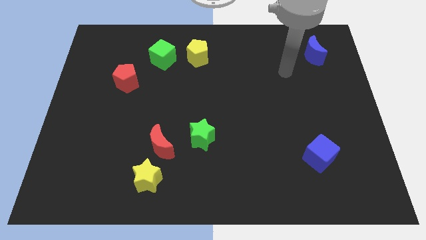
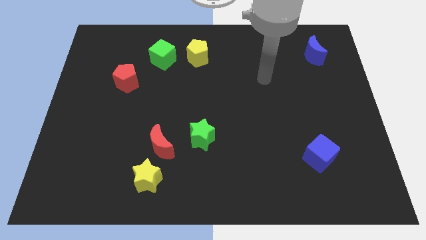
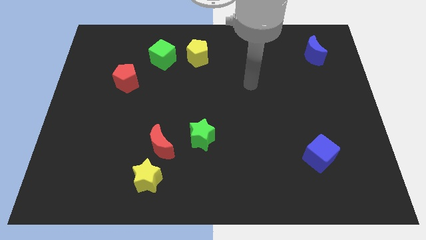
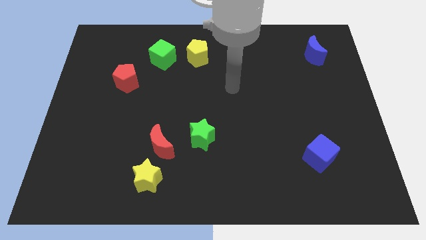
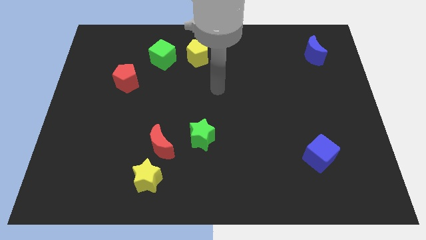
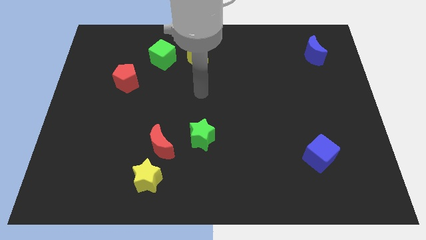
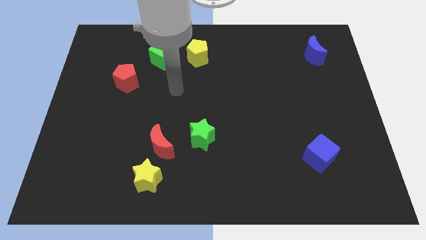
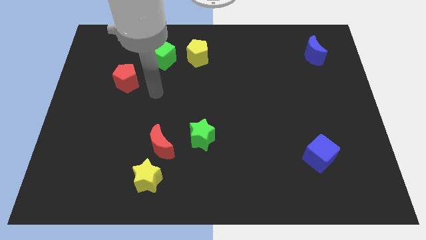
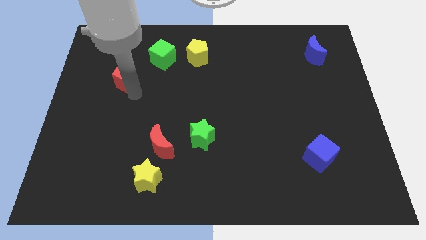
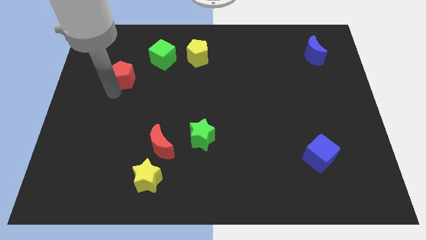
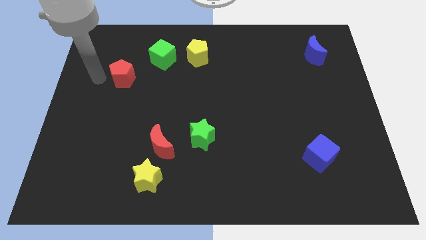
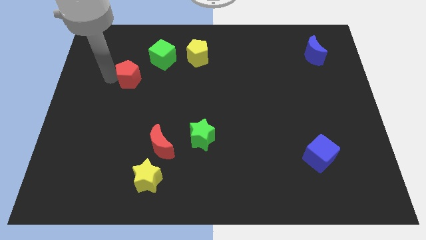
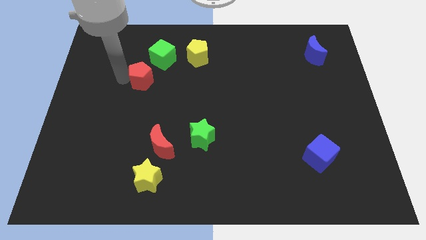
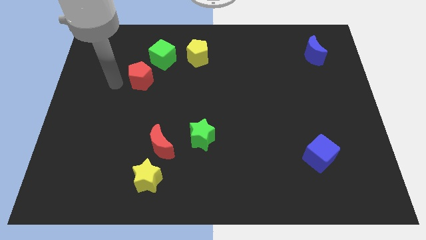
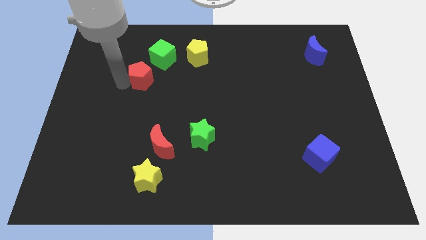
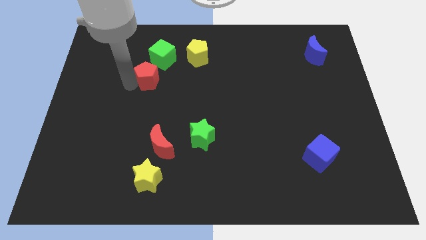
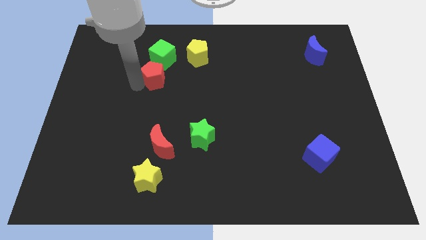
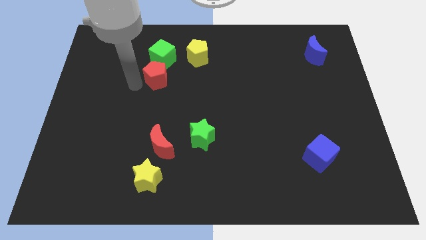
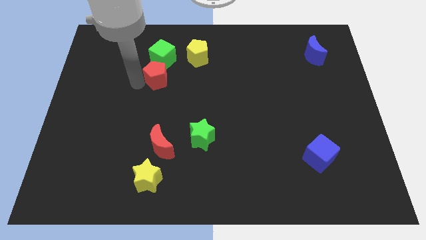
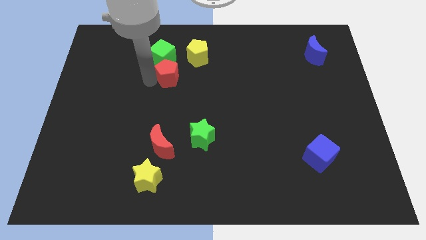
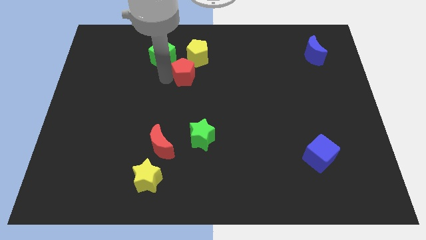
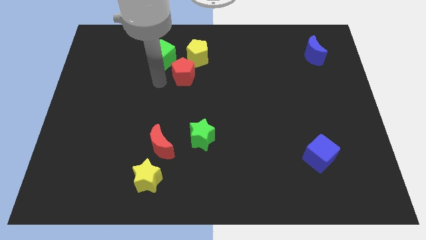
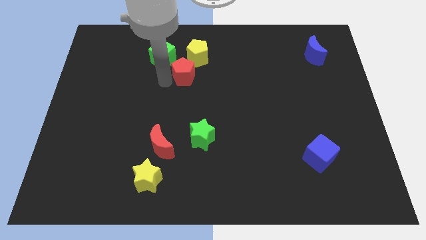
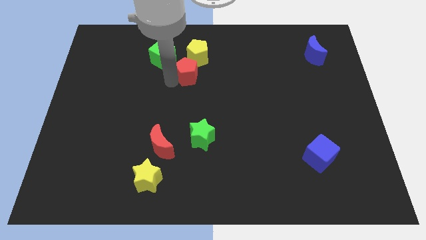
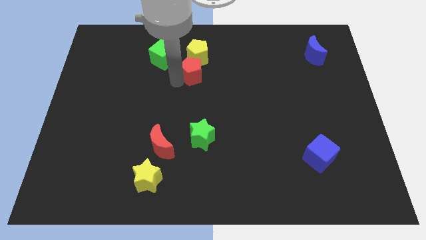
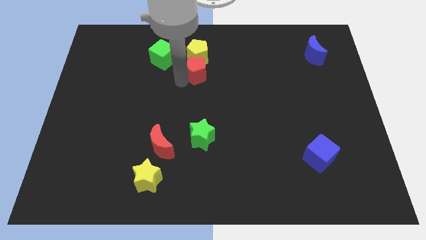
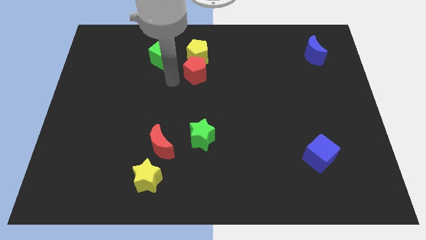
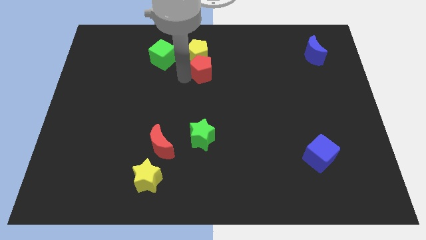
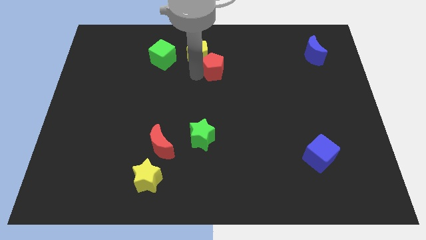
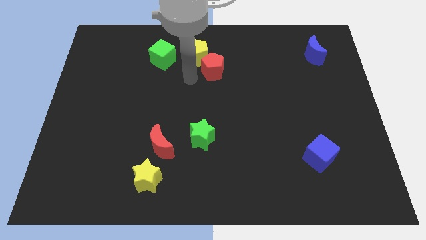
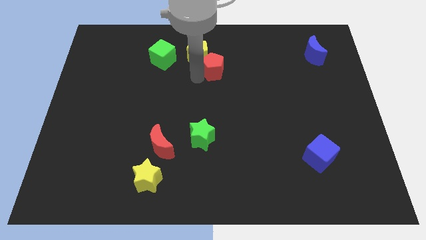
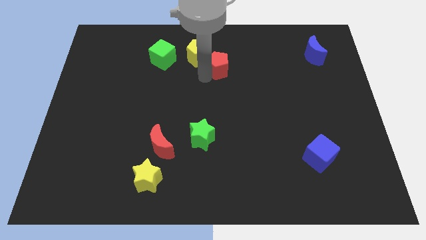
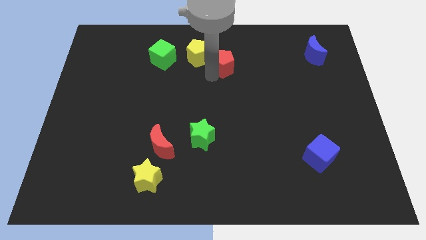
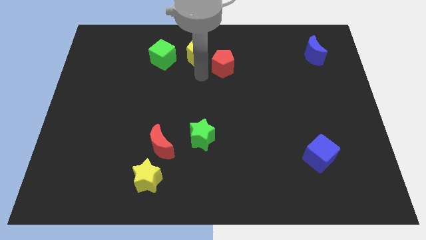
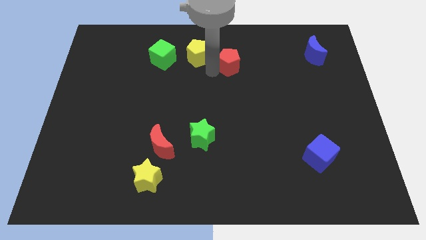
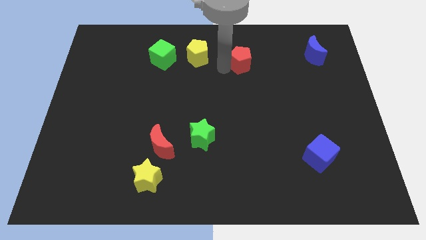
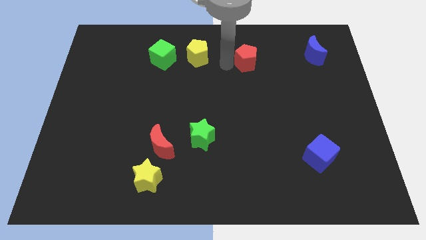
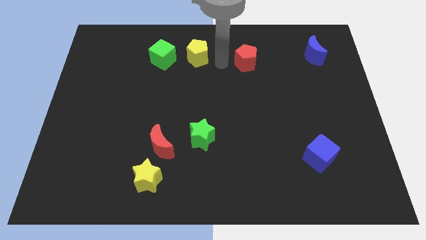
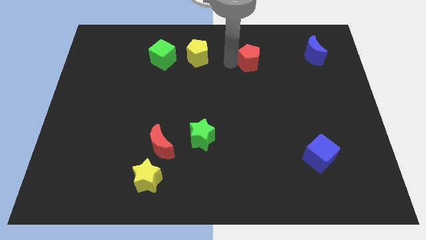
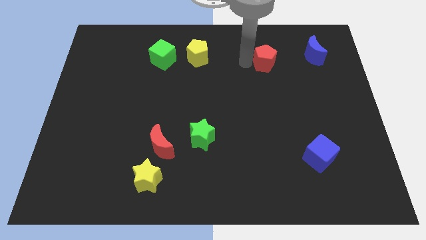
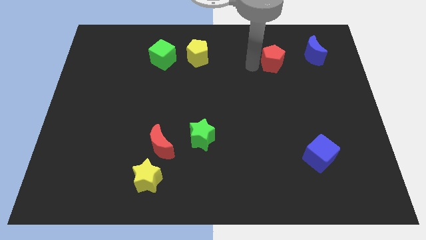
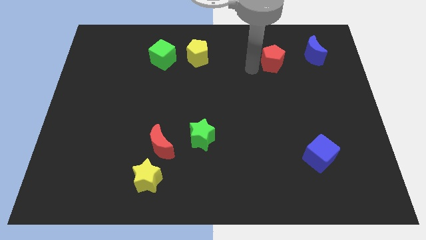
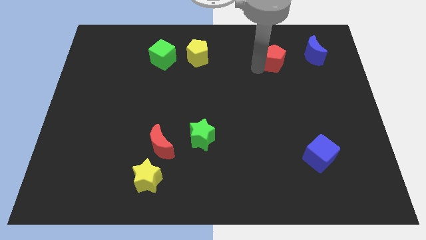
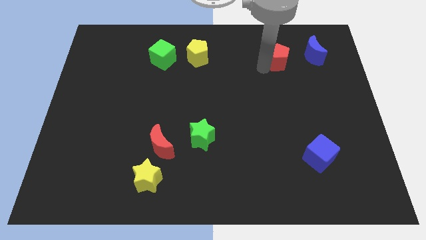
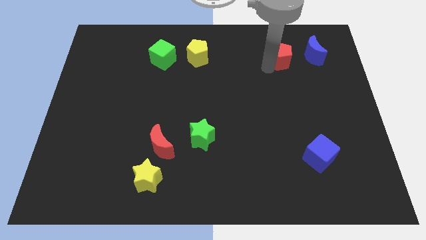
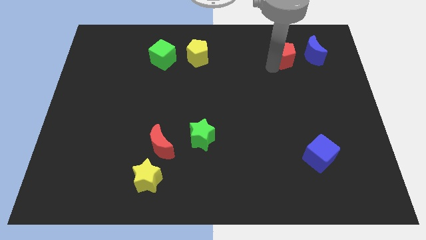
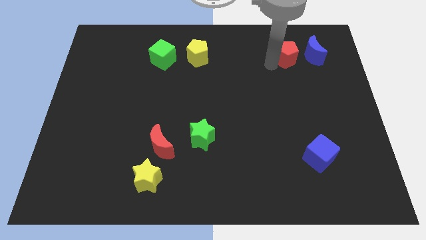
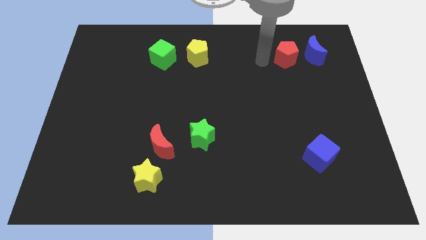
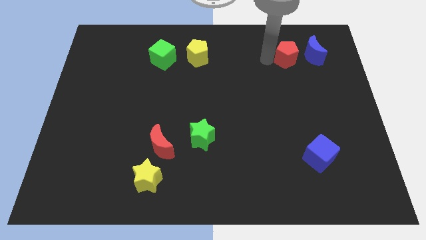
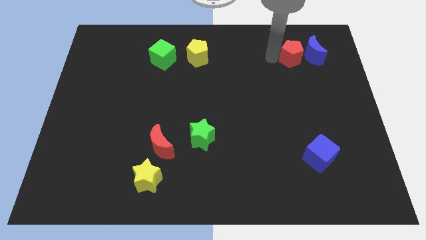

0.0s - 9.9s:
slide the red pentagon close to the blue moon

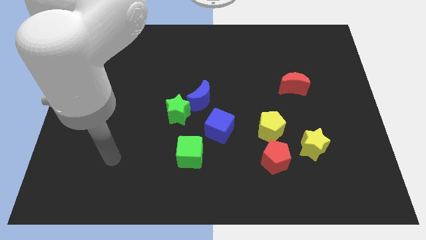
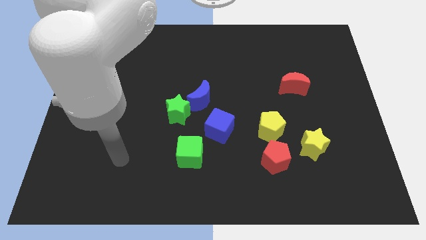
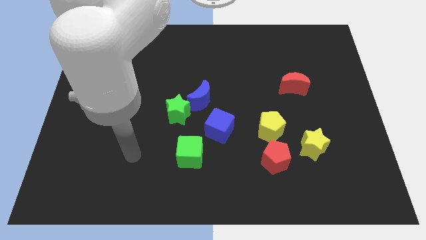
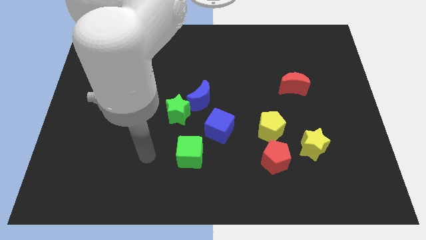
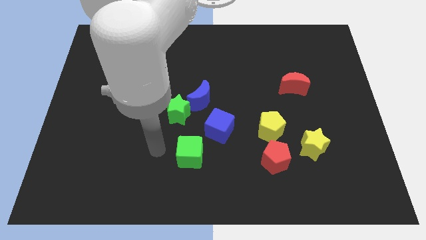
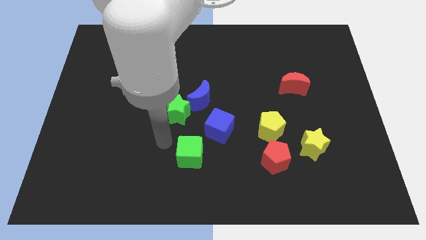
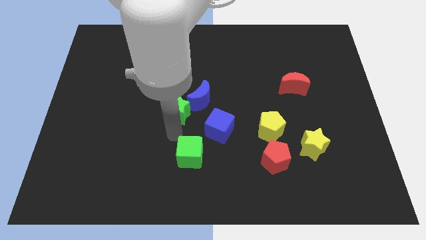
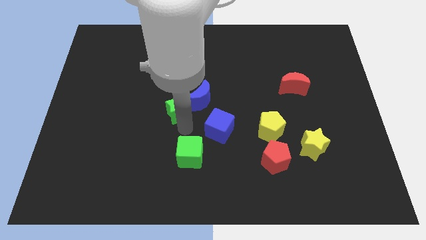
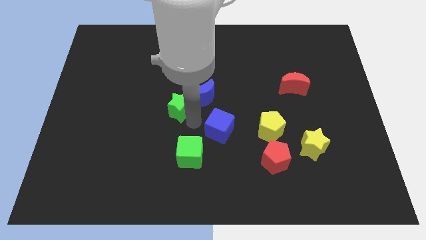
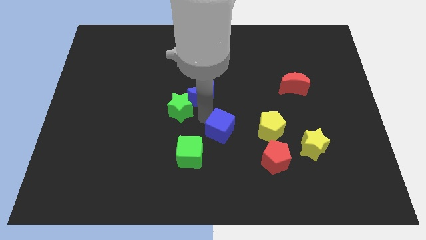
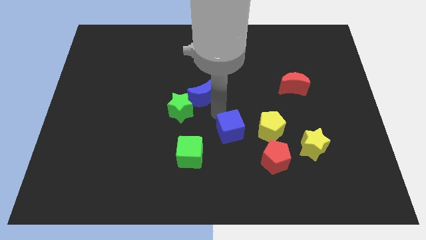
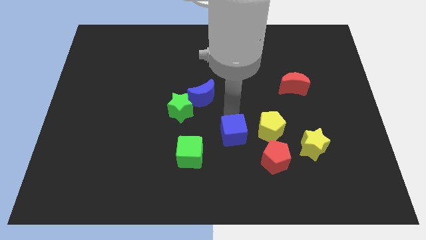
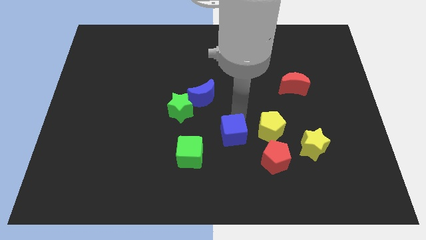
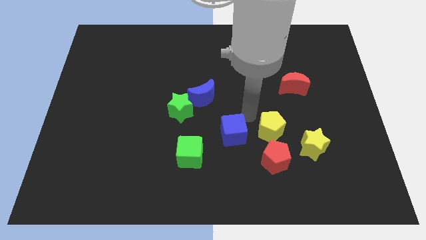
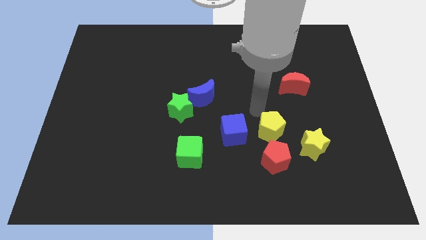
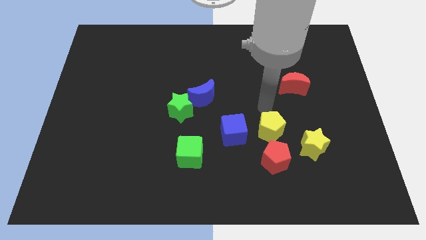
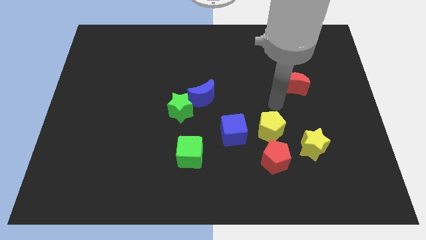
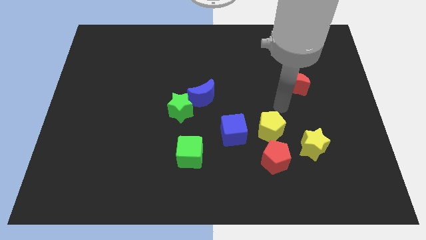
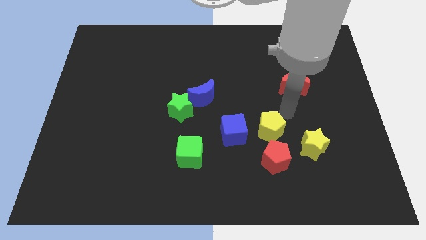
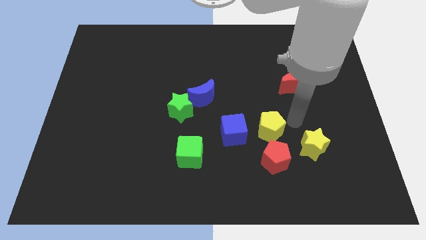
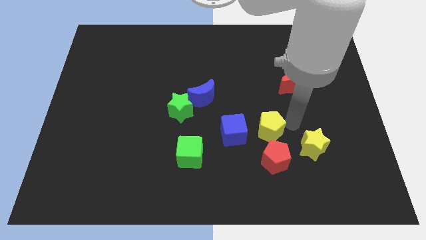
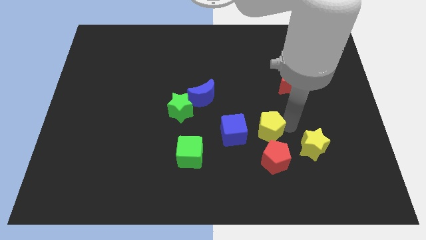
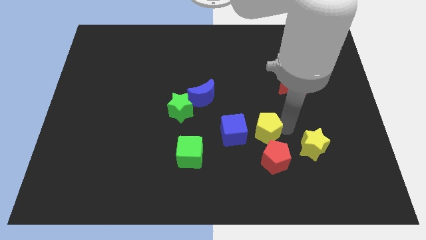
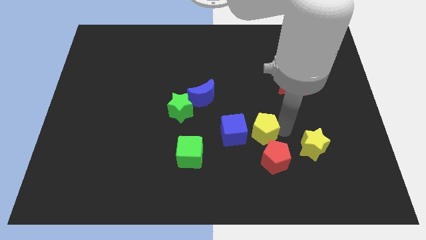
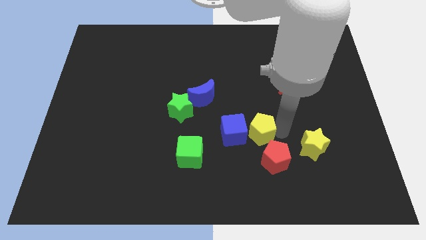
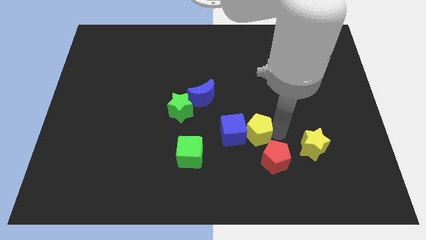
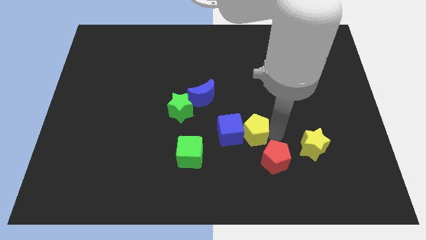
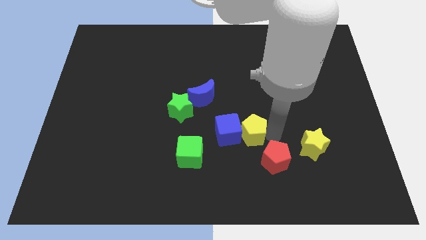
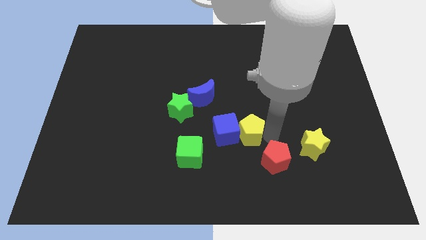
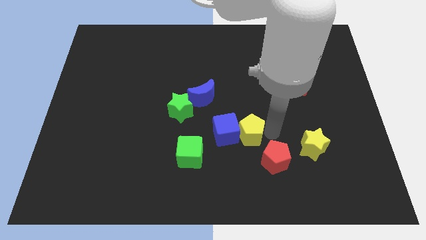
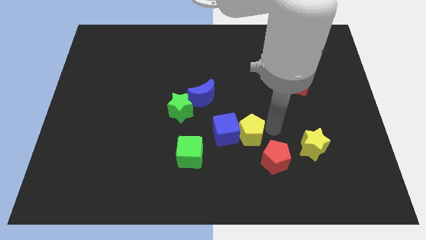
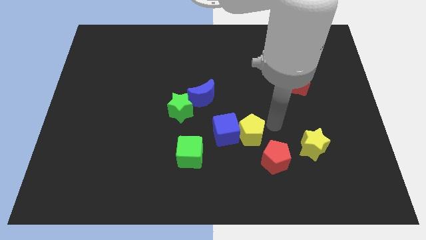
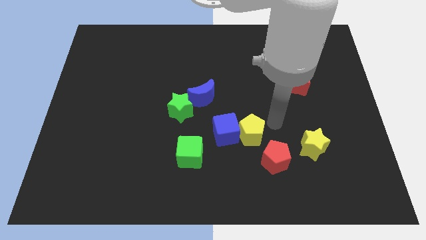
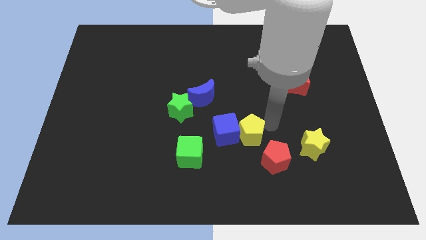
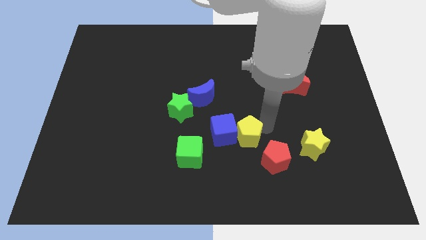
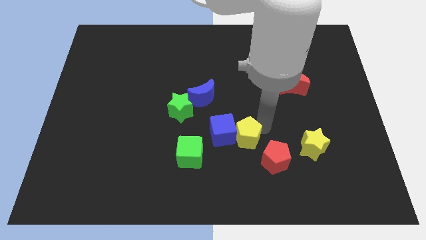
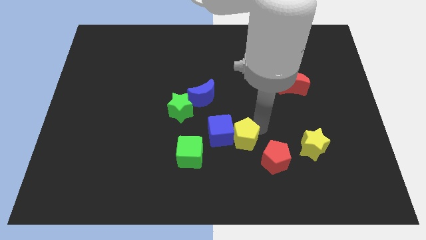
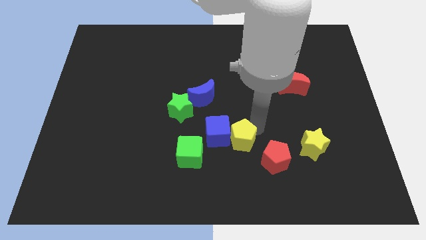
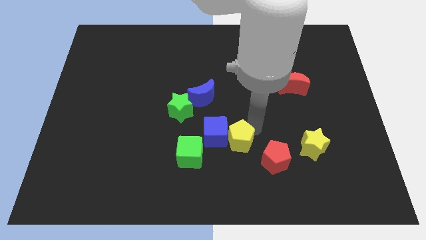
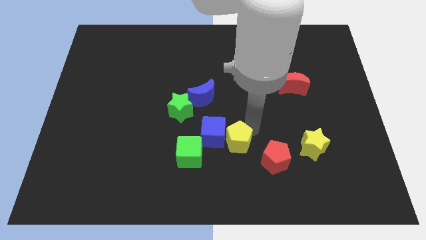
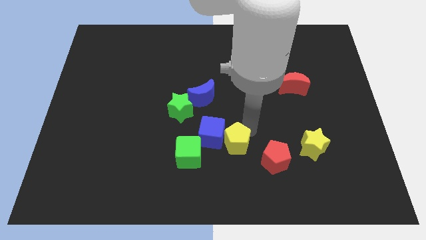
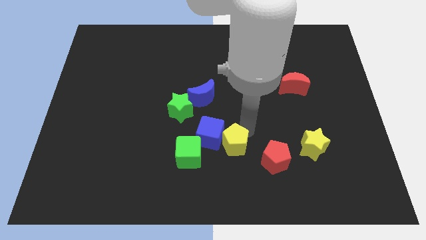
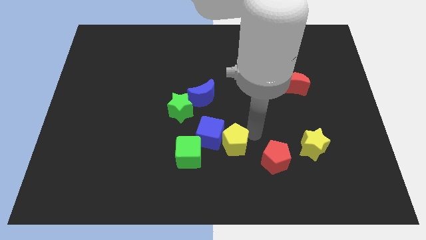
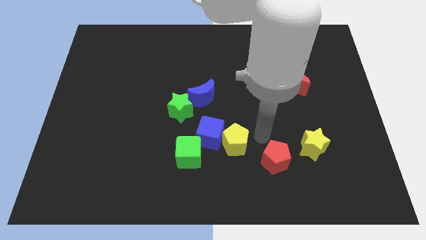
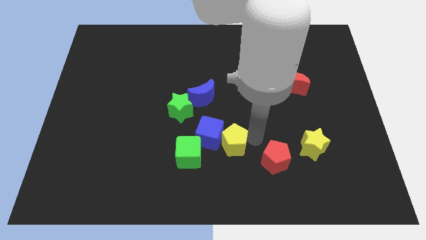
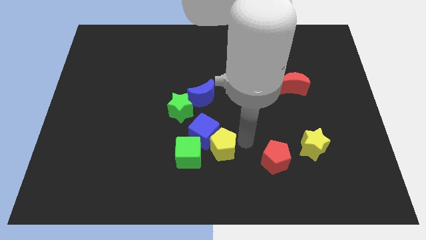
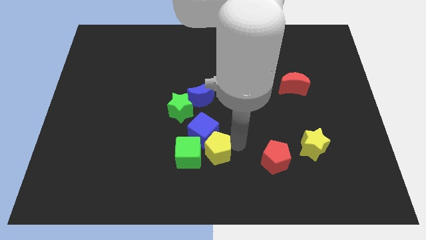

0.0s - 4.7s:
move the yellow pentagon close to the green cube
